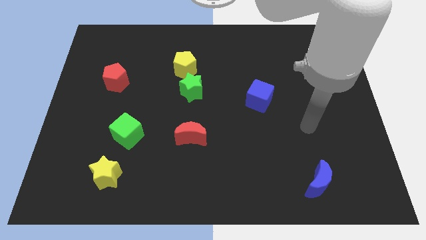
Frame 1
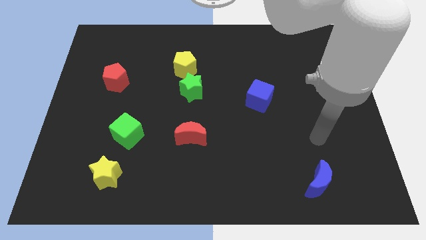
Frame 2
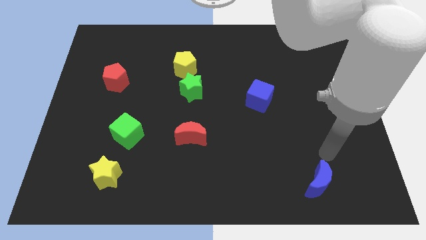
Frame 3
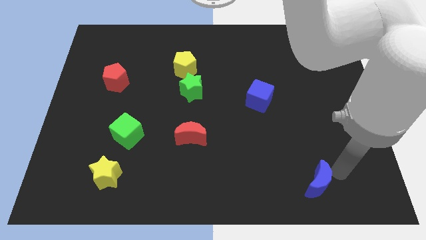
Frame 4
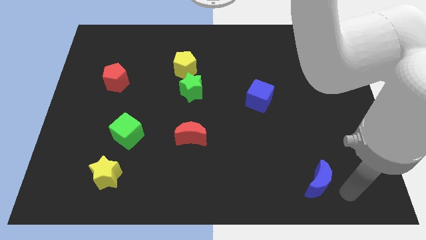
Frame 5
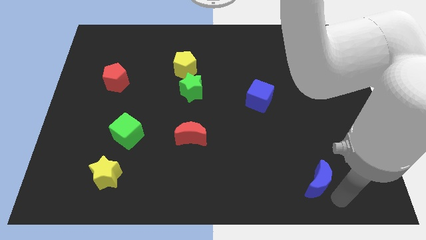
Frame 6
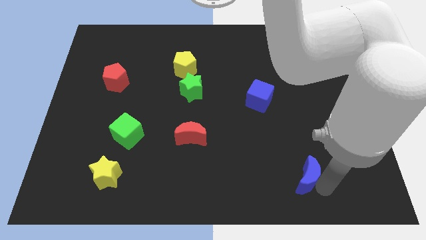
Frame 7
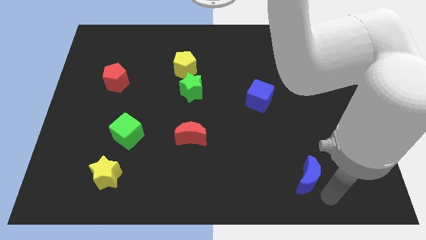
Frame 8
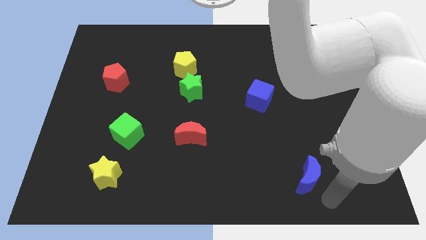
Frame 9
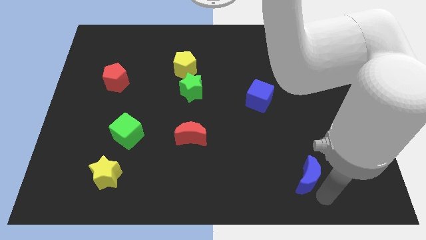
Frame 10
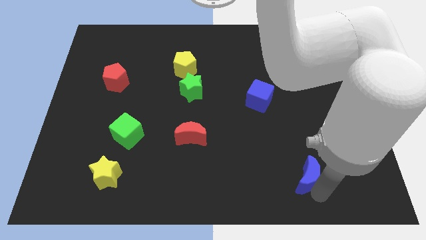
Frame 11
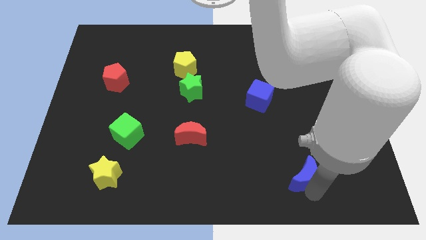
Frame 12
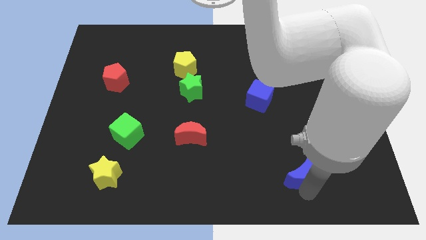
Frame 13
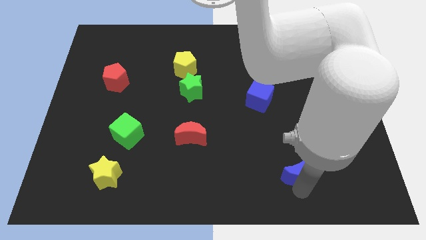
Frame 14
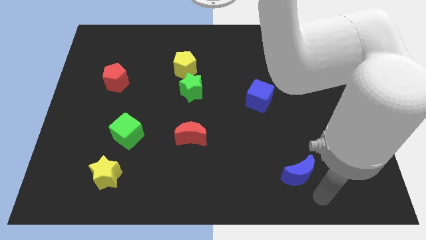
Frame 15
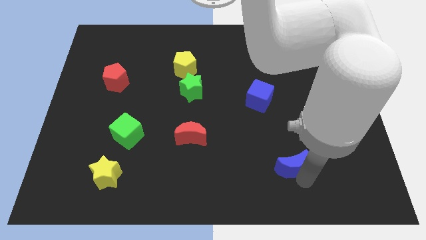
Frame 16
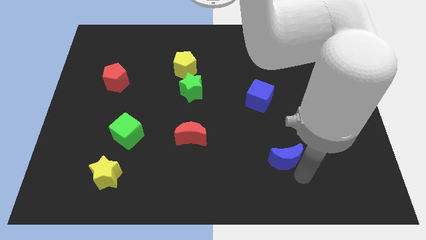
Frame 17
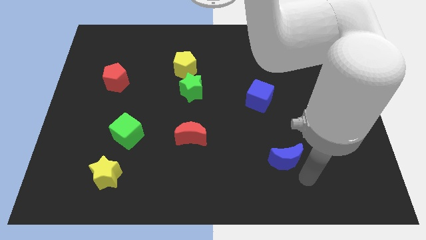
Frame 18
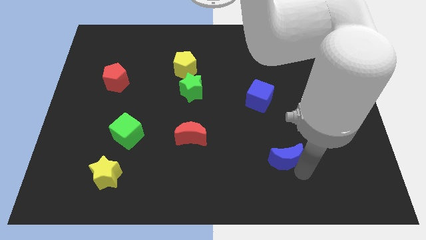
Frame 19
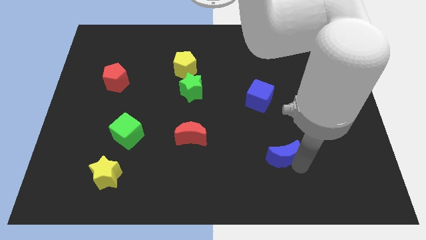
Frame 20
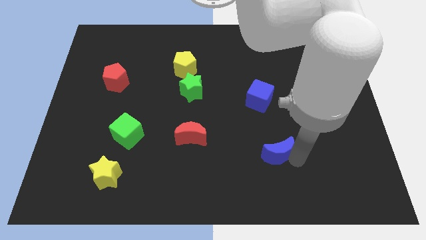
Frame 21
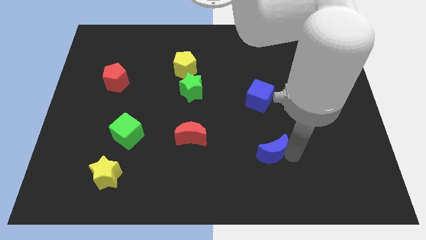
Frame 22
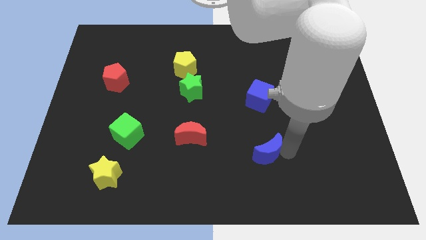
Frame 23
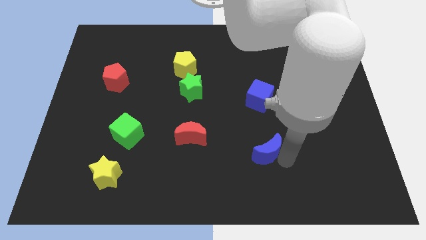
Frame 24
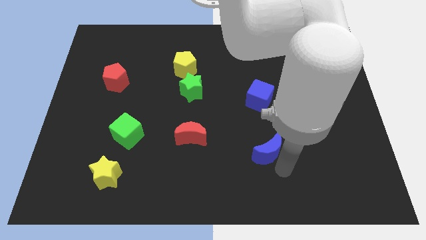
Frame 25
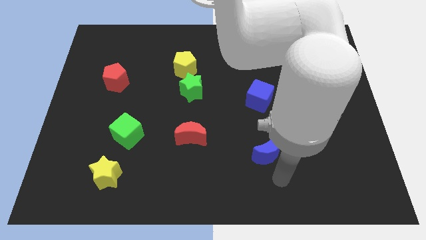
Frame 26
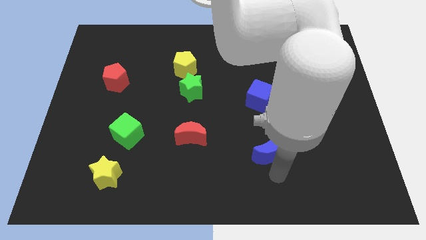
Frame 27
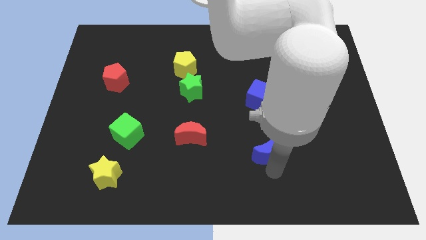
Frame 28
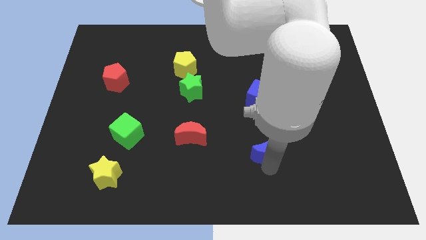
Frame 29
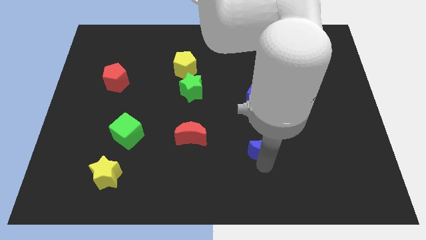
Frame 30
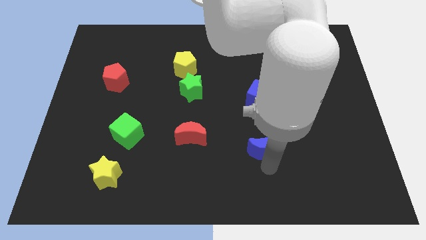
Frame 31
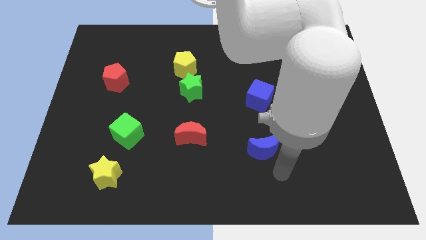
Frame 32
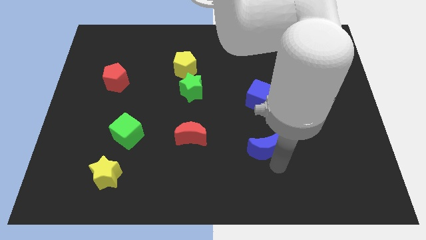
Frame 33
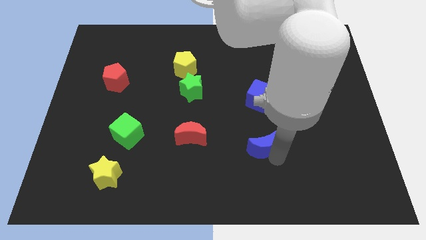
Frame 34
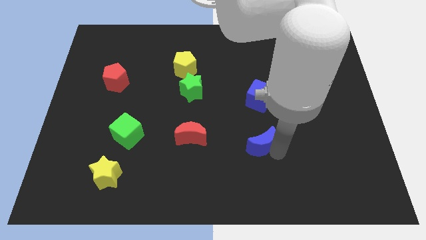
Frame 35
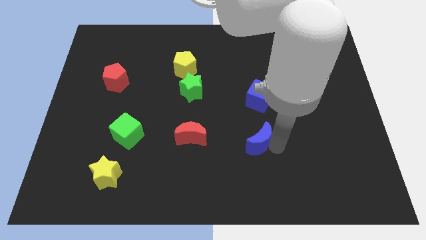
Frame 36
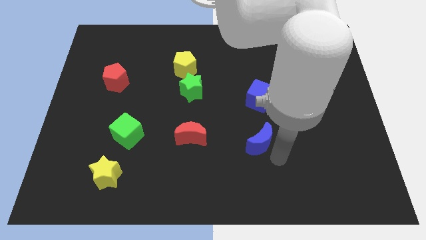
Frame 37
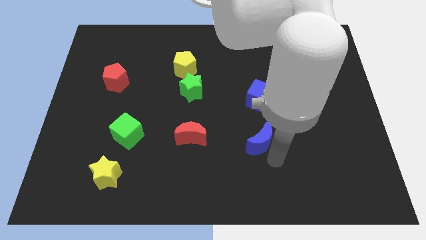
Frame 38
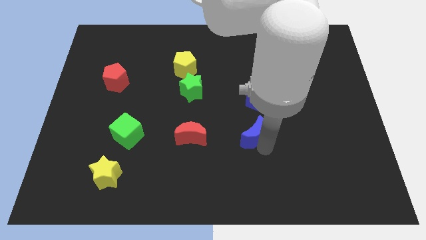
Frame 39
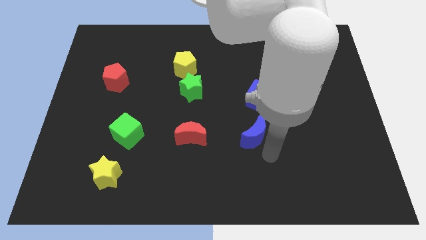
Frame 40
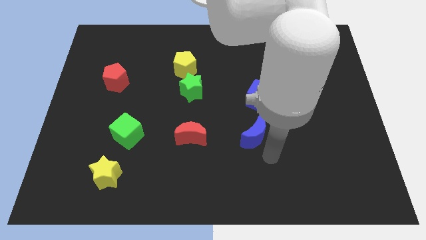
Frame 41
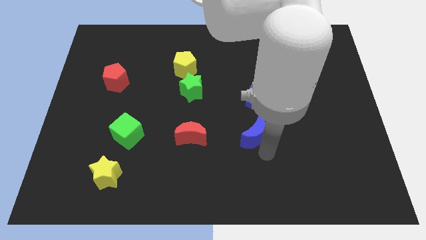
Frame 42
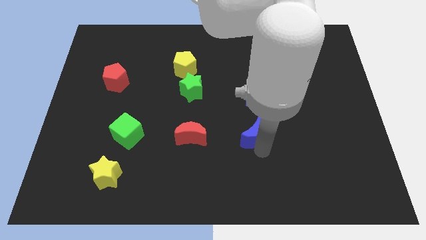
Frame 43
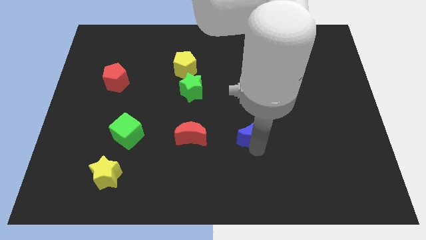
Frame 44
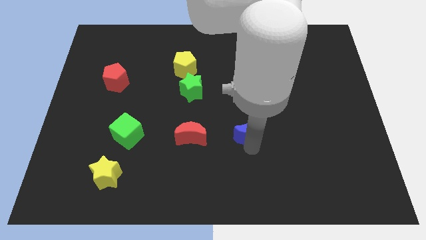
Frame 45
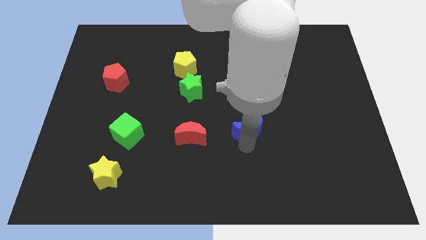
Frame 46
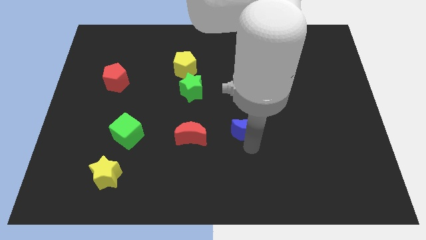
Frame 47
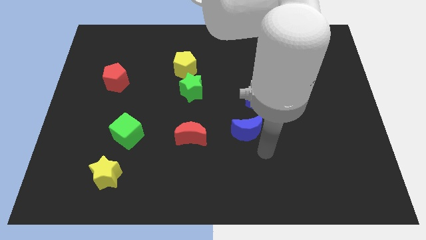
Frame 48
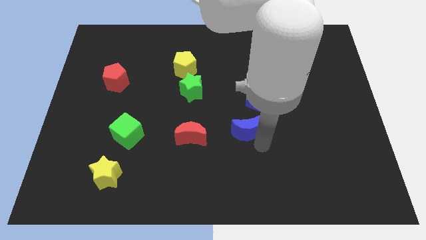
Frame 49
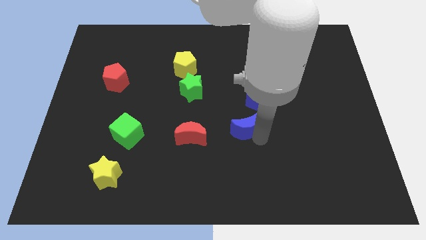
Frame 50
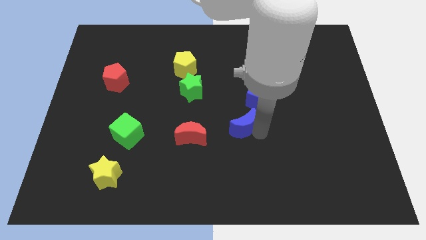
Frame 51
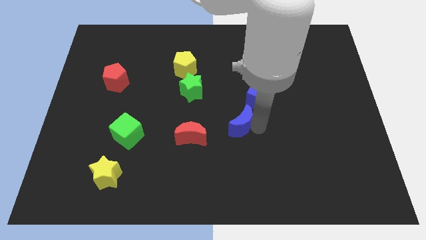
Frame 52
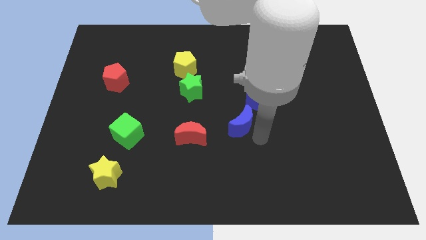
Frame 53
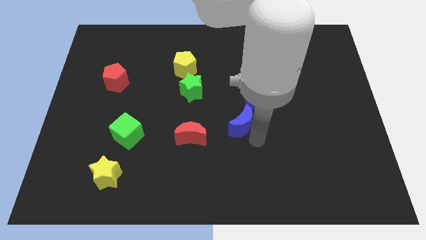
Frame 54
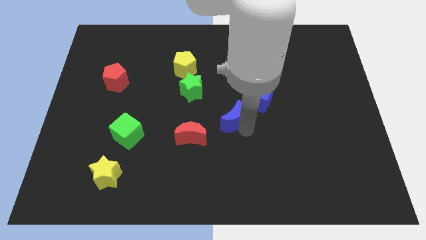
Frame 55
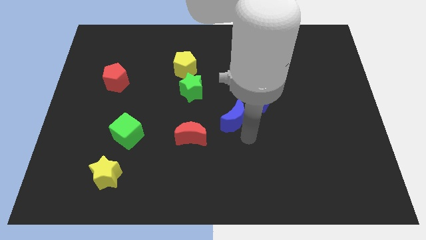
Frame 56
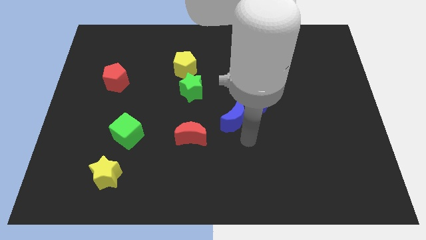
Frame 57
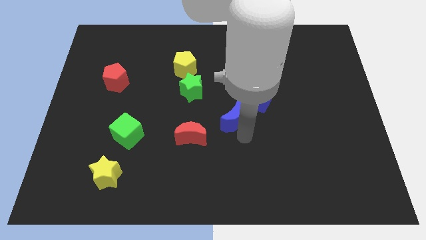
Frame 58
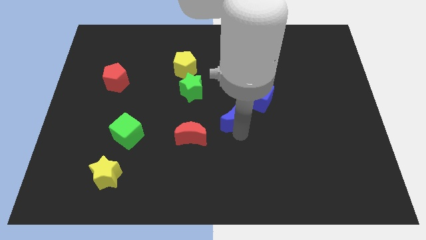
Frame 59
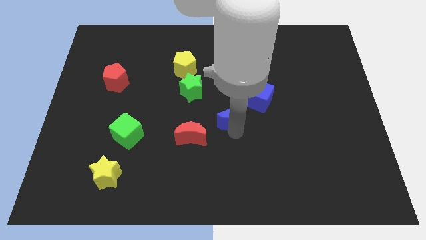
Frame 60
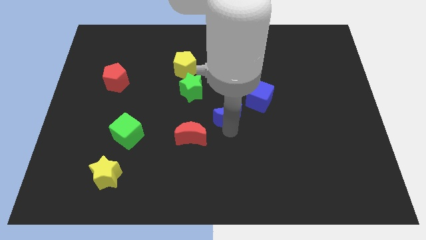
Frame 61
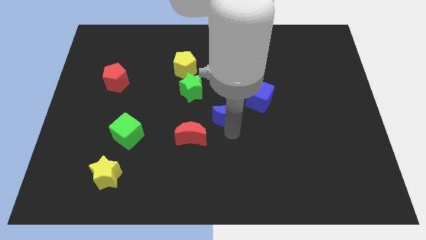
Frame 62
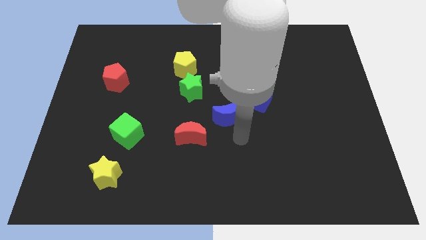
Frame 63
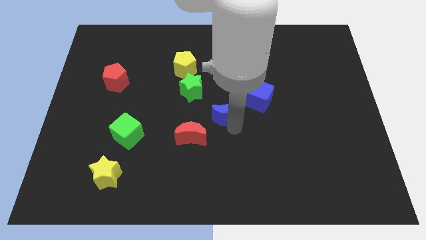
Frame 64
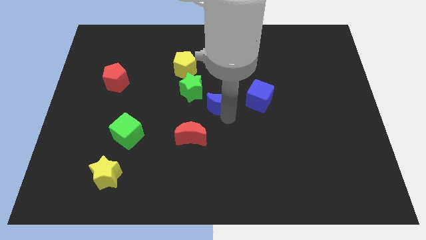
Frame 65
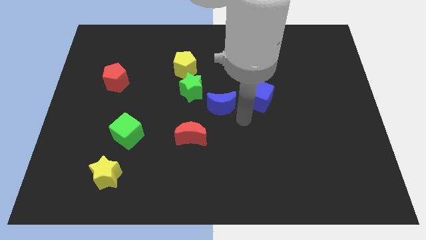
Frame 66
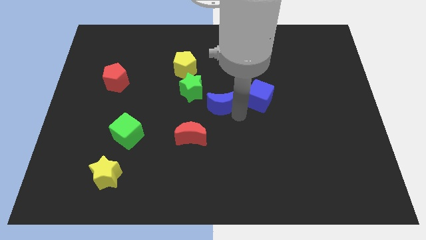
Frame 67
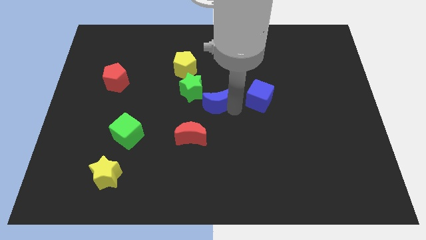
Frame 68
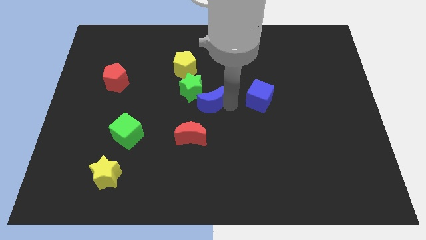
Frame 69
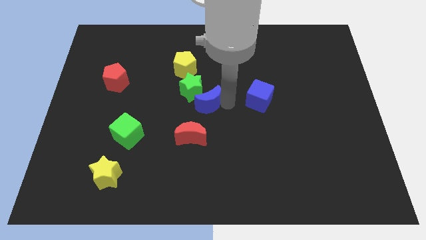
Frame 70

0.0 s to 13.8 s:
push the blue moon towards the green star
